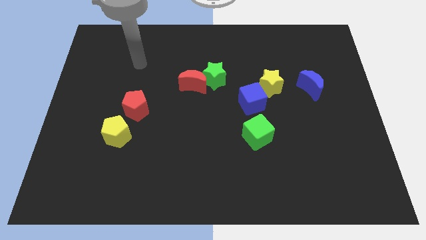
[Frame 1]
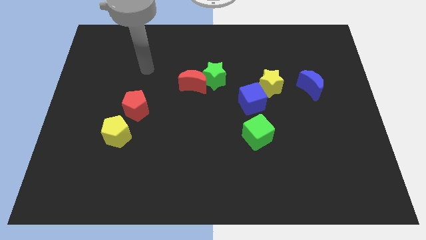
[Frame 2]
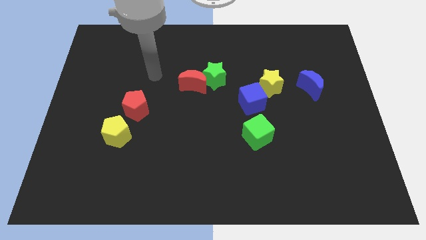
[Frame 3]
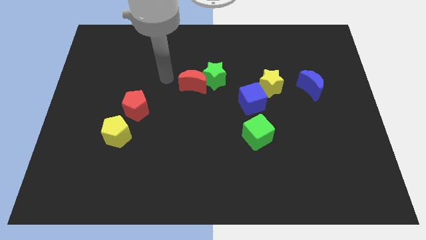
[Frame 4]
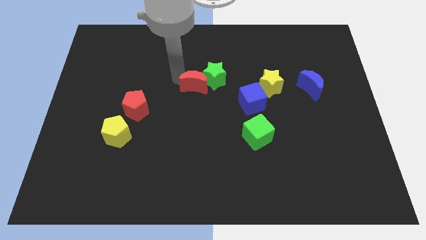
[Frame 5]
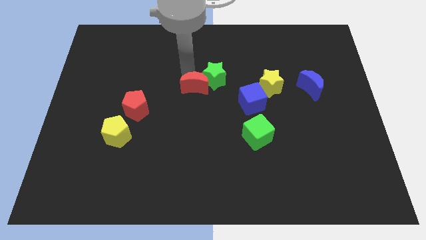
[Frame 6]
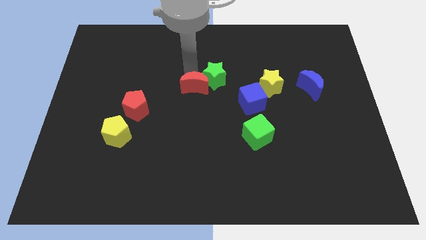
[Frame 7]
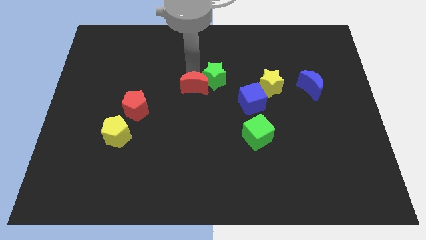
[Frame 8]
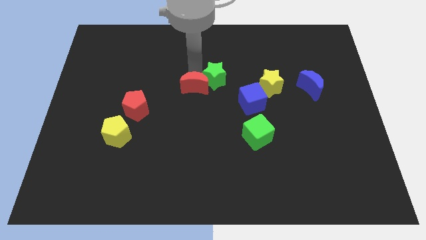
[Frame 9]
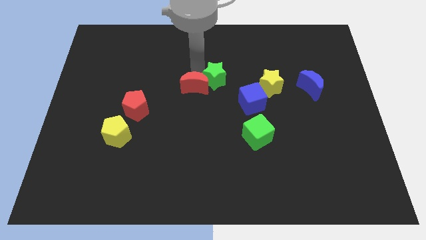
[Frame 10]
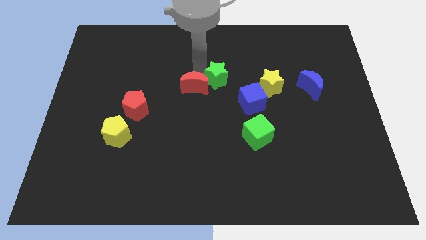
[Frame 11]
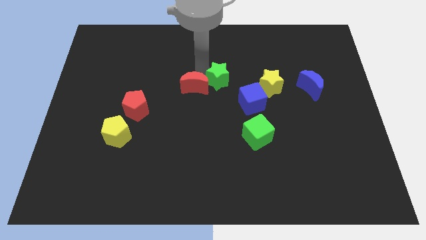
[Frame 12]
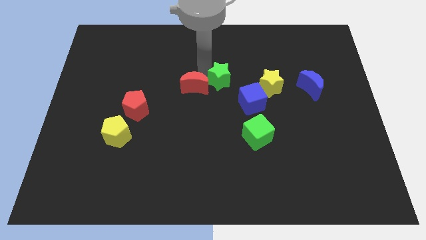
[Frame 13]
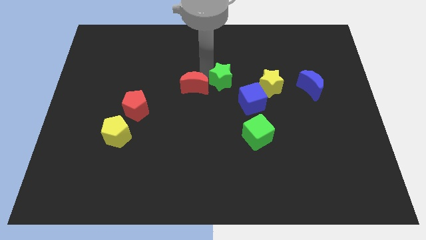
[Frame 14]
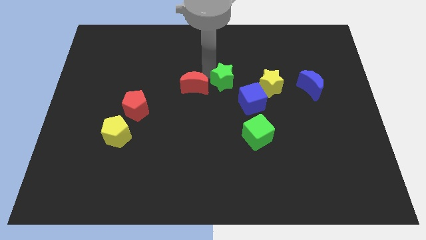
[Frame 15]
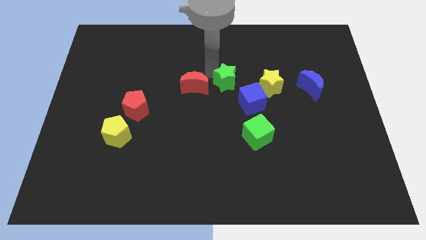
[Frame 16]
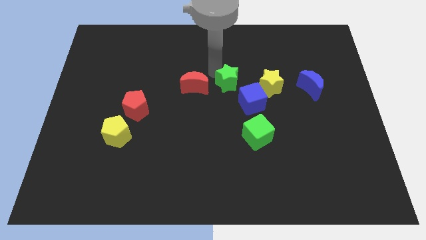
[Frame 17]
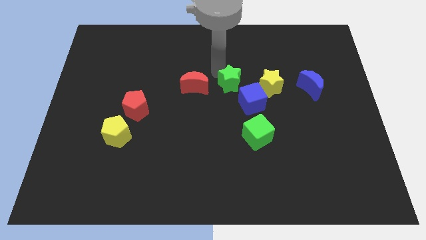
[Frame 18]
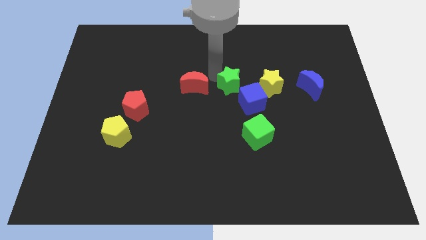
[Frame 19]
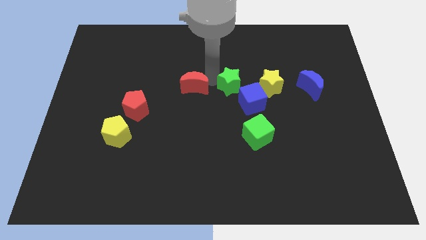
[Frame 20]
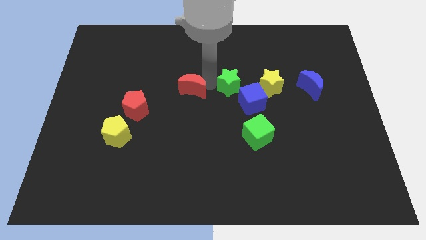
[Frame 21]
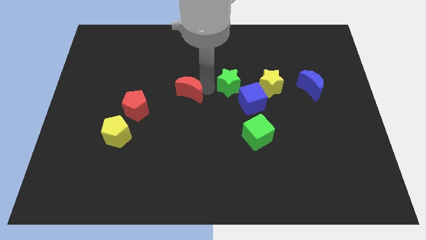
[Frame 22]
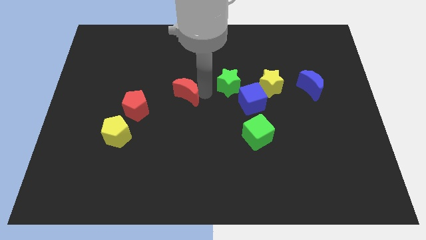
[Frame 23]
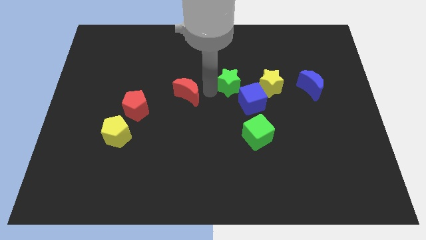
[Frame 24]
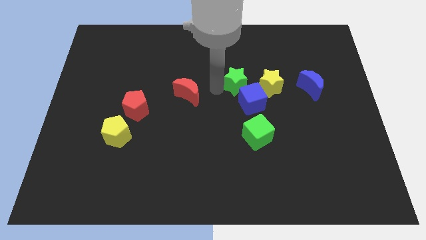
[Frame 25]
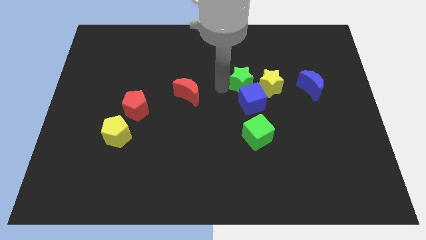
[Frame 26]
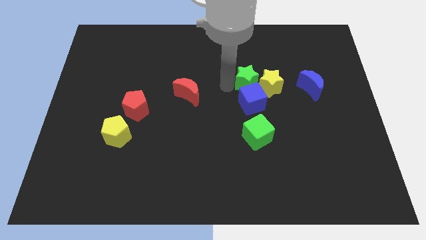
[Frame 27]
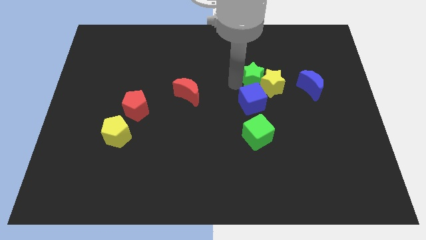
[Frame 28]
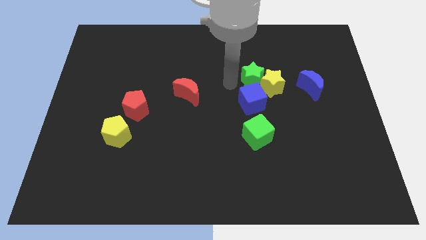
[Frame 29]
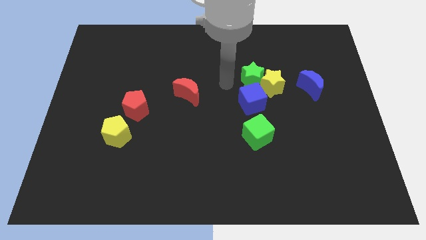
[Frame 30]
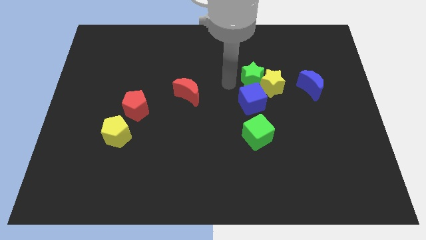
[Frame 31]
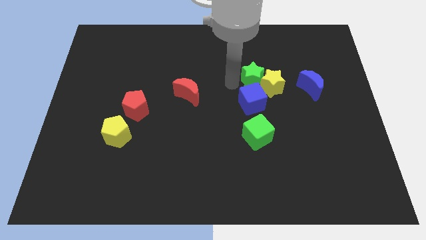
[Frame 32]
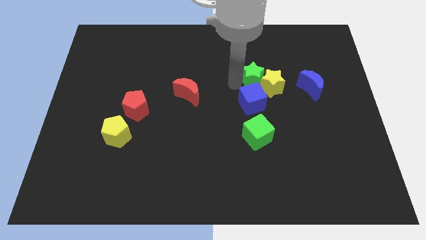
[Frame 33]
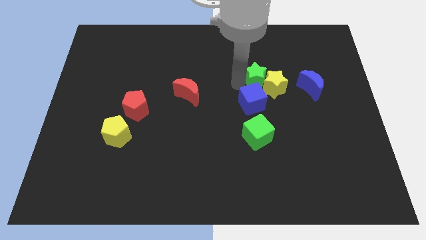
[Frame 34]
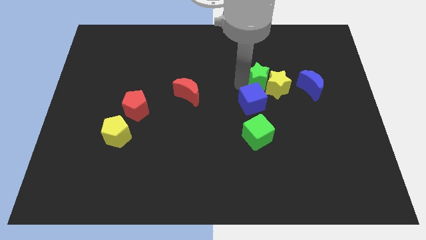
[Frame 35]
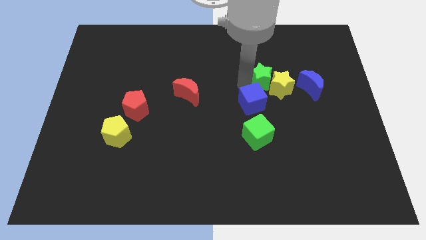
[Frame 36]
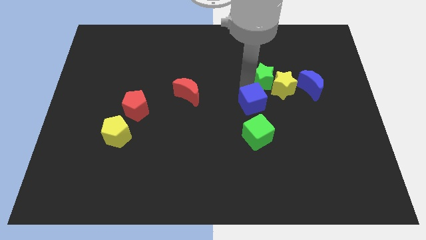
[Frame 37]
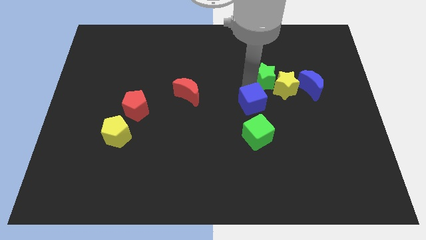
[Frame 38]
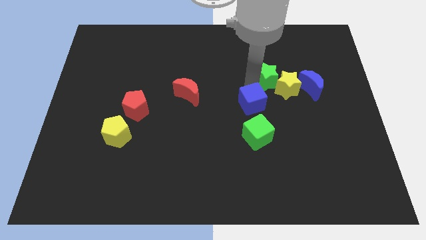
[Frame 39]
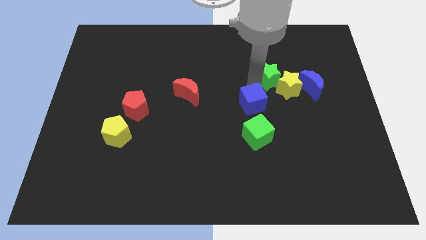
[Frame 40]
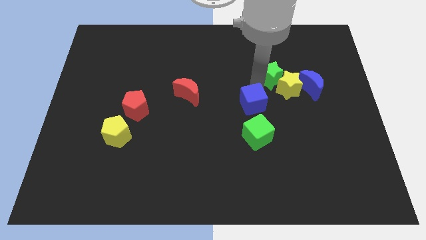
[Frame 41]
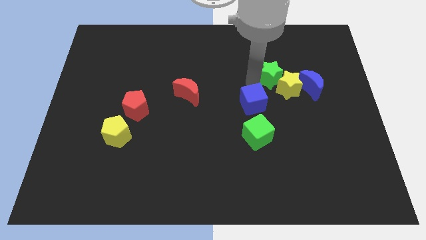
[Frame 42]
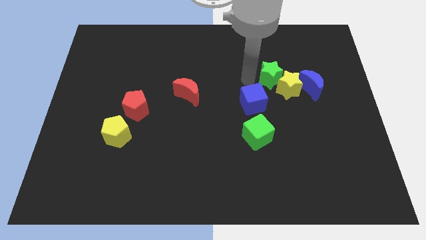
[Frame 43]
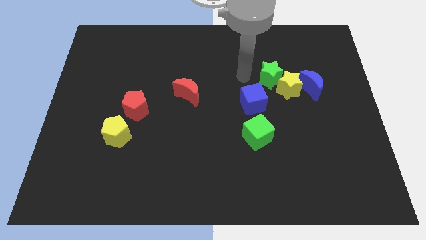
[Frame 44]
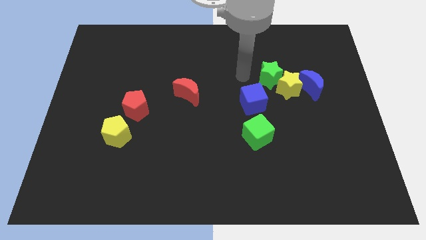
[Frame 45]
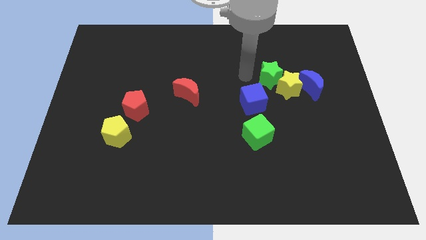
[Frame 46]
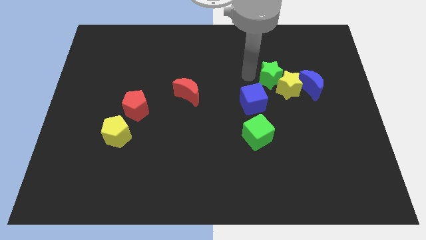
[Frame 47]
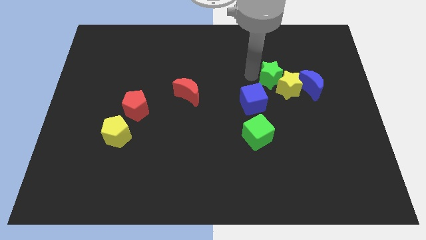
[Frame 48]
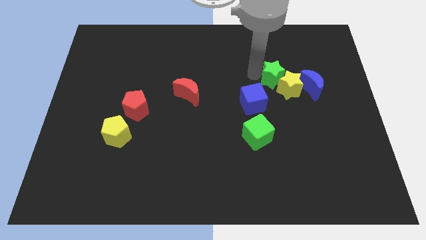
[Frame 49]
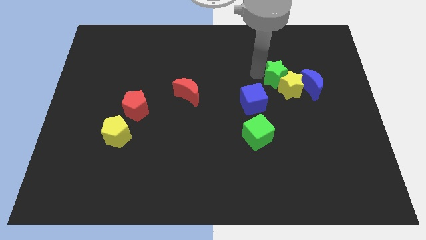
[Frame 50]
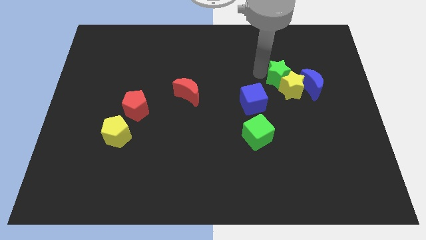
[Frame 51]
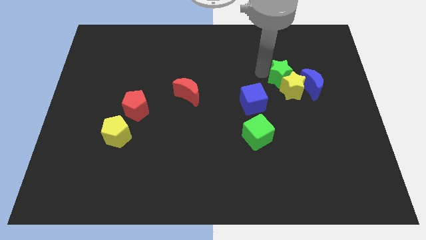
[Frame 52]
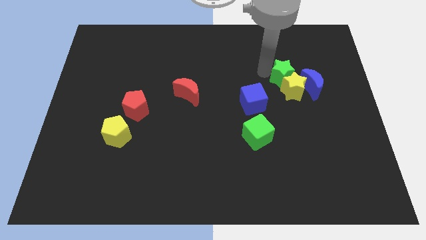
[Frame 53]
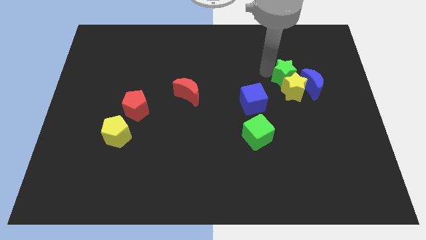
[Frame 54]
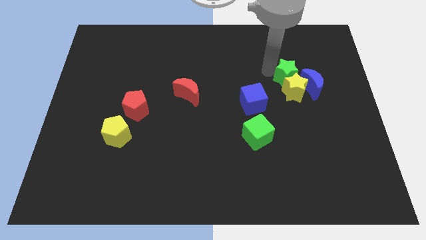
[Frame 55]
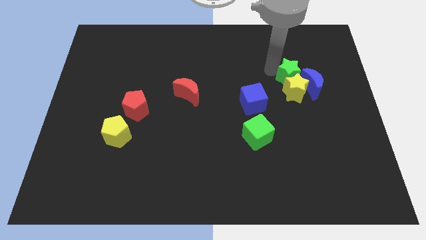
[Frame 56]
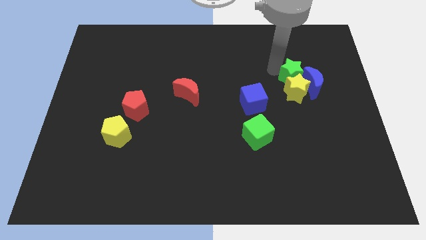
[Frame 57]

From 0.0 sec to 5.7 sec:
move the green star to the blue moon
